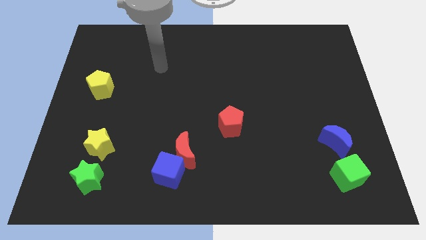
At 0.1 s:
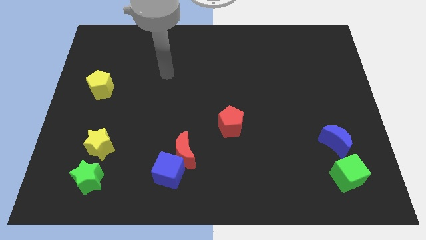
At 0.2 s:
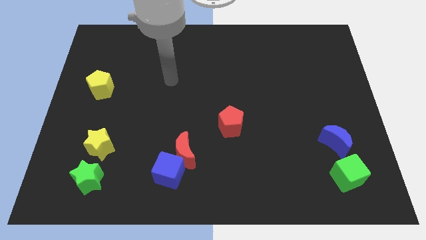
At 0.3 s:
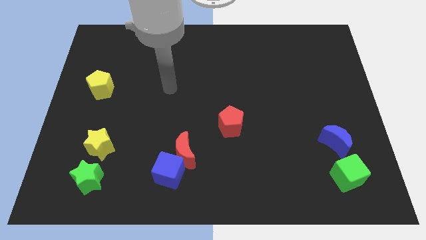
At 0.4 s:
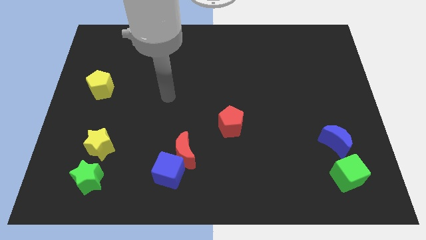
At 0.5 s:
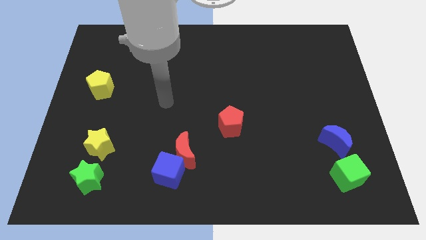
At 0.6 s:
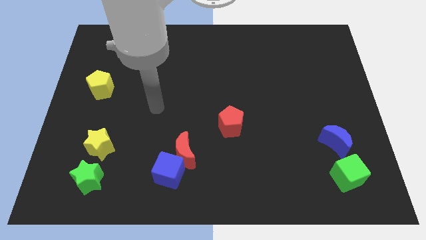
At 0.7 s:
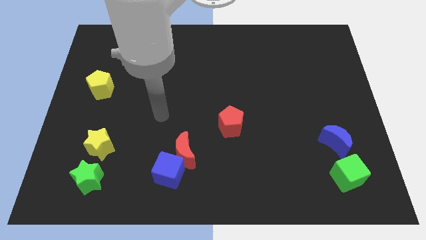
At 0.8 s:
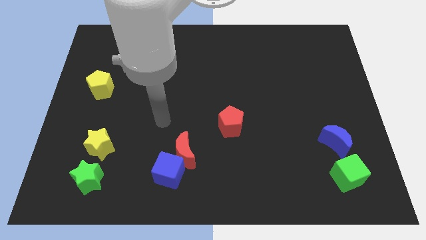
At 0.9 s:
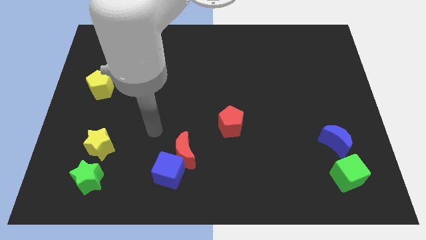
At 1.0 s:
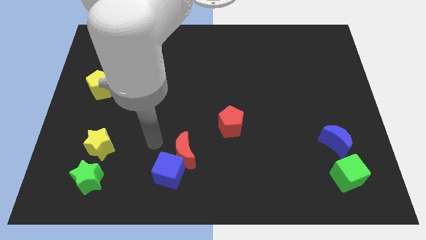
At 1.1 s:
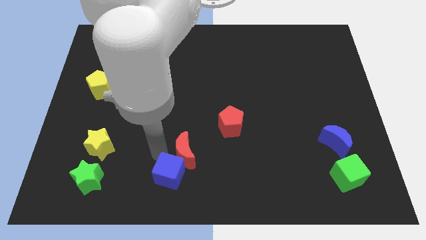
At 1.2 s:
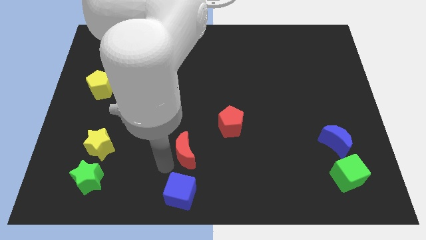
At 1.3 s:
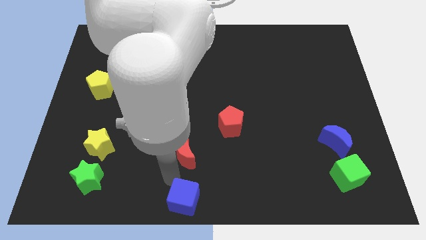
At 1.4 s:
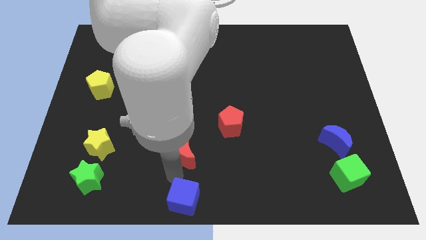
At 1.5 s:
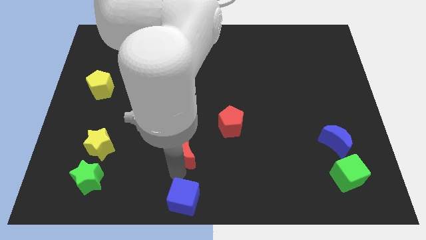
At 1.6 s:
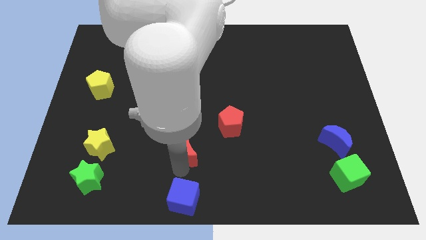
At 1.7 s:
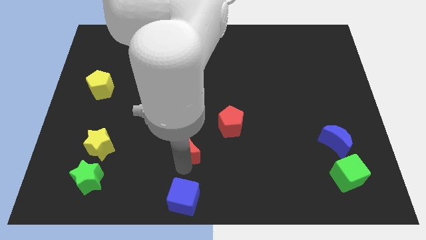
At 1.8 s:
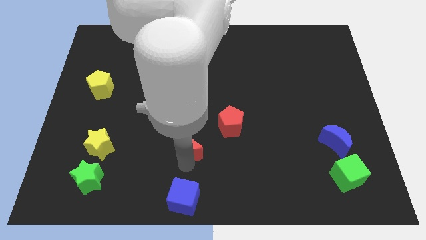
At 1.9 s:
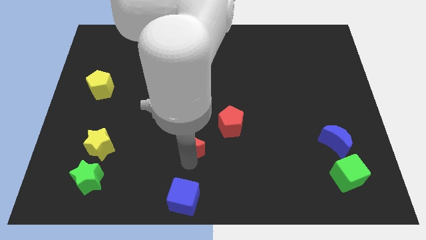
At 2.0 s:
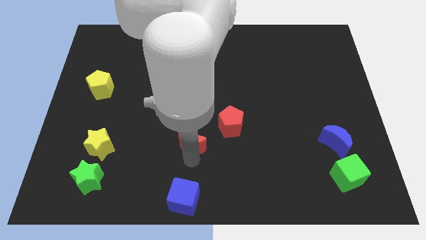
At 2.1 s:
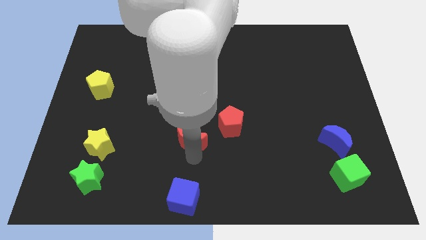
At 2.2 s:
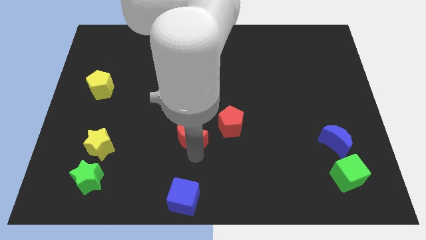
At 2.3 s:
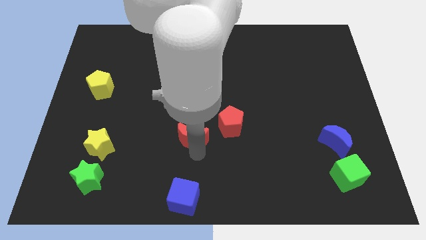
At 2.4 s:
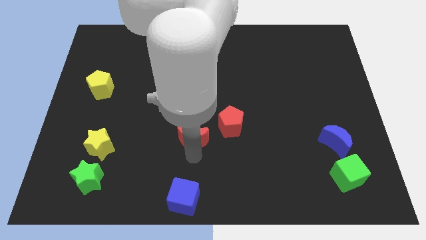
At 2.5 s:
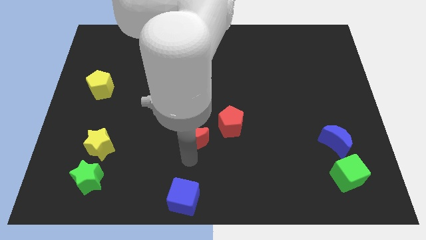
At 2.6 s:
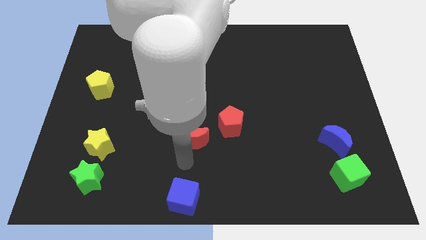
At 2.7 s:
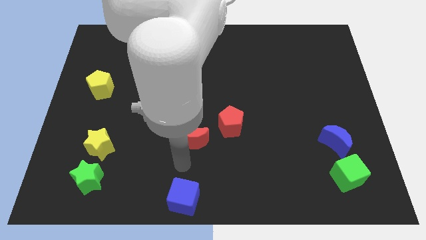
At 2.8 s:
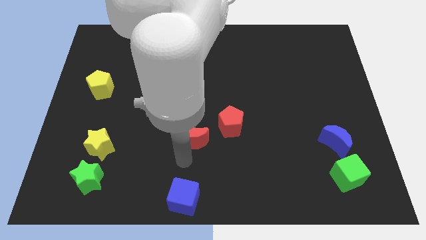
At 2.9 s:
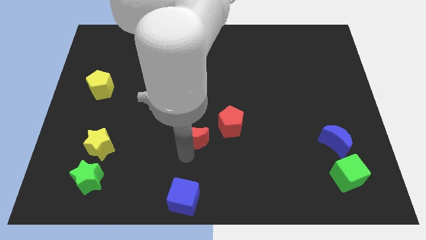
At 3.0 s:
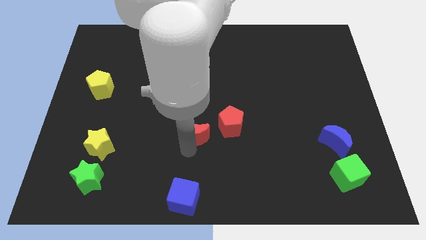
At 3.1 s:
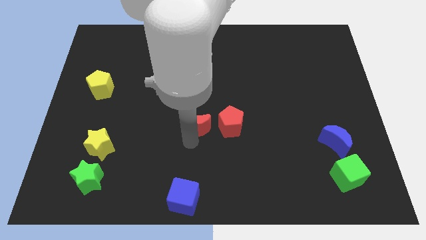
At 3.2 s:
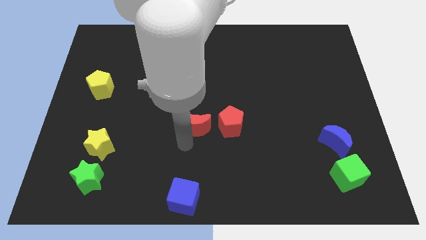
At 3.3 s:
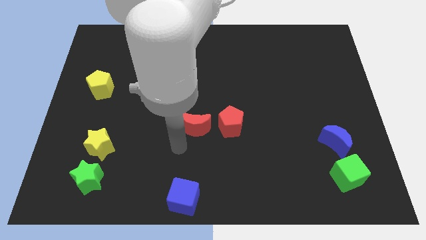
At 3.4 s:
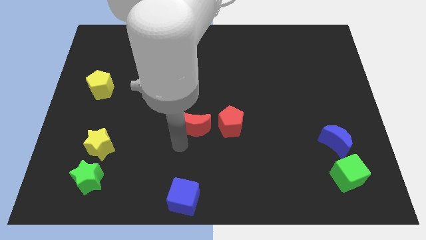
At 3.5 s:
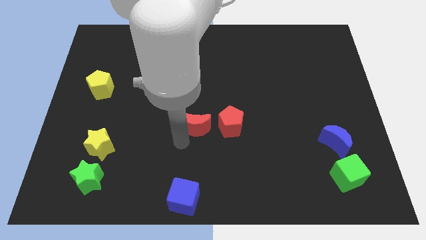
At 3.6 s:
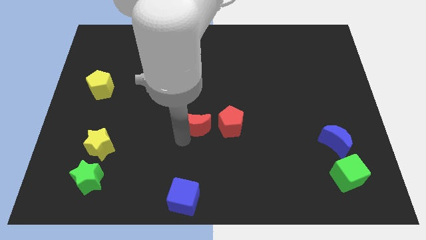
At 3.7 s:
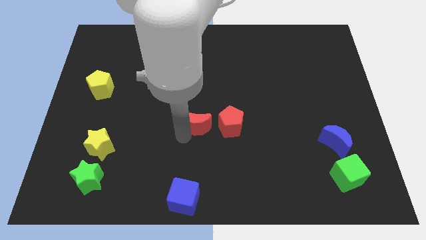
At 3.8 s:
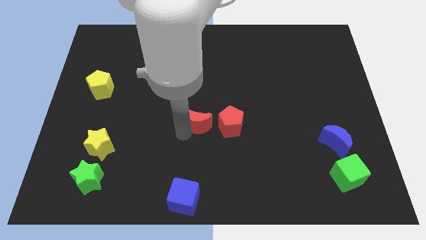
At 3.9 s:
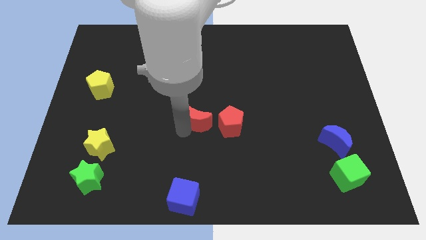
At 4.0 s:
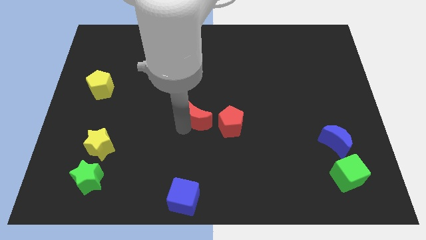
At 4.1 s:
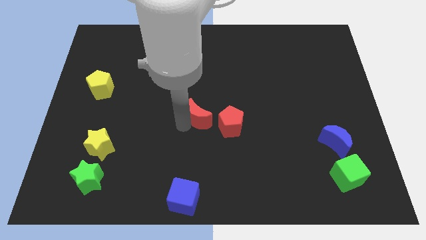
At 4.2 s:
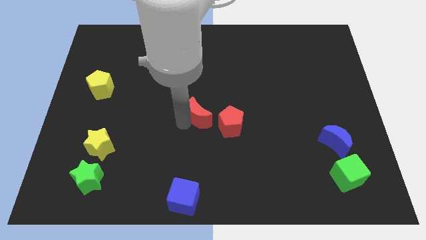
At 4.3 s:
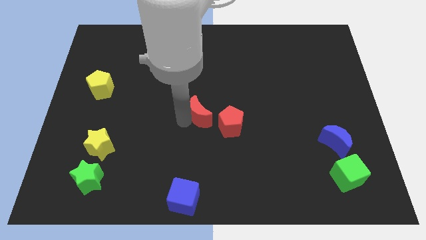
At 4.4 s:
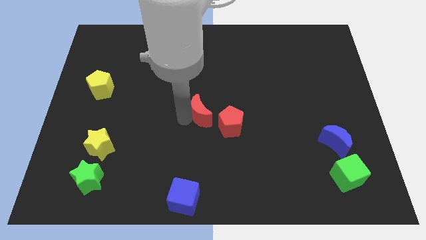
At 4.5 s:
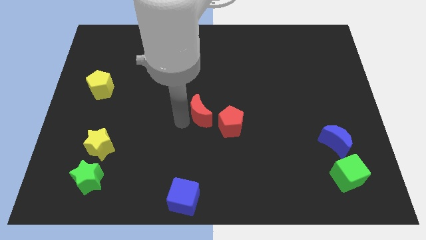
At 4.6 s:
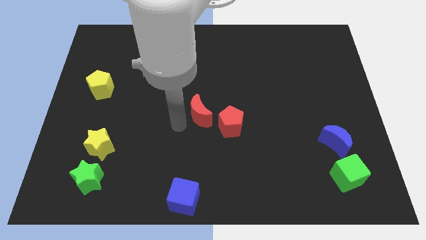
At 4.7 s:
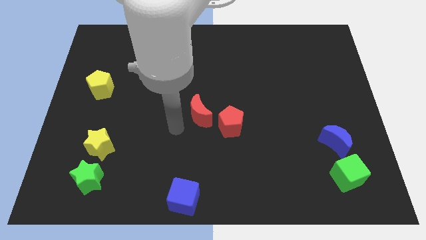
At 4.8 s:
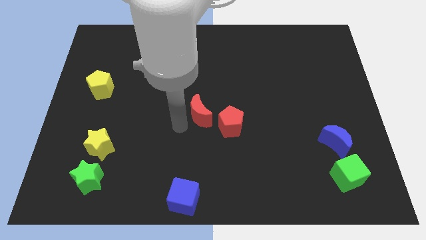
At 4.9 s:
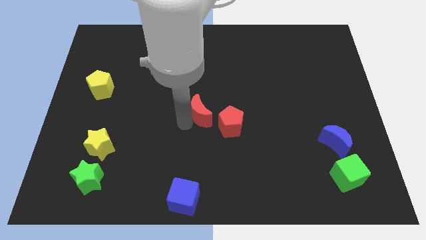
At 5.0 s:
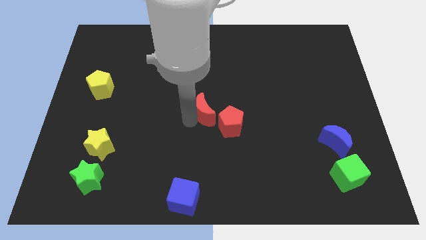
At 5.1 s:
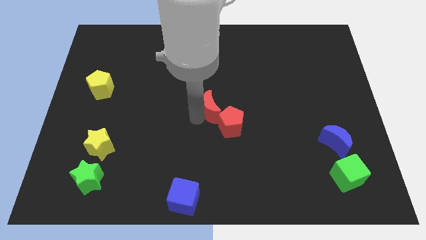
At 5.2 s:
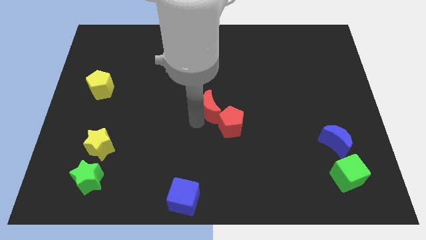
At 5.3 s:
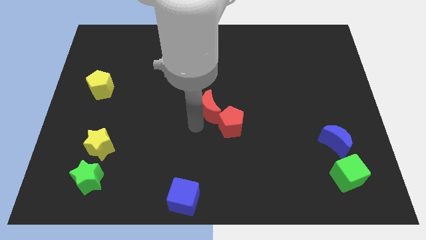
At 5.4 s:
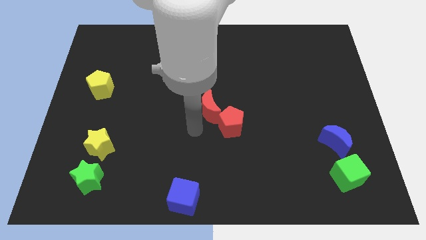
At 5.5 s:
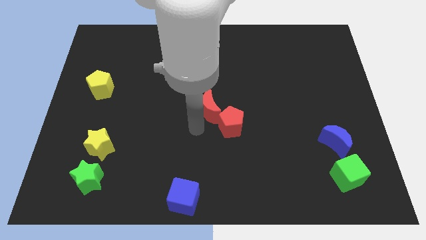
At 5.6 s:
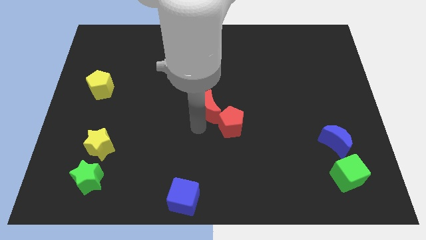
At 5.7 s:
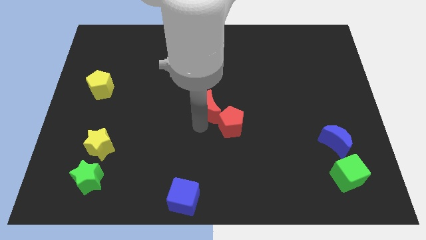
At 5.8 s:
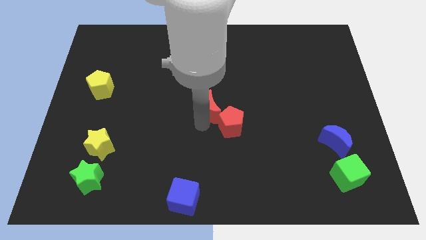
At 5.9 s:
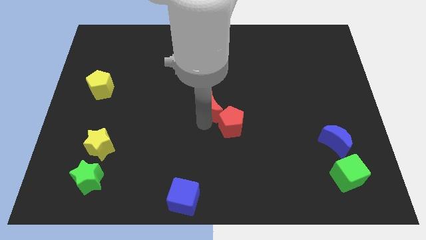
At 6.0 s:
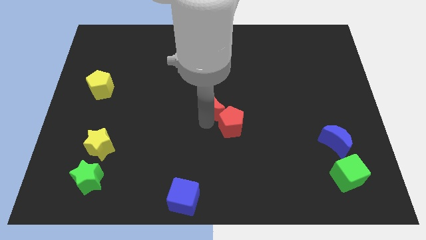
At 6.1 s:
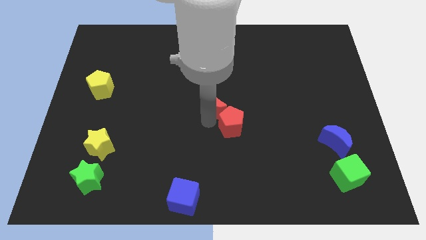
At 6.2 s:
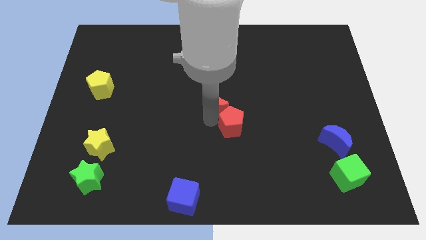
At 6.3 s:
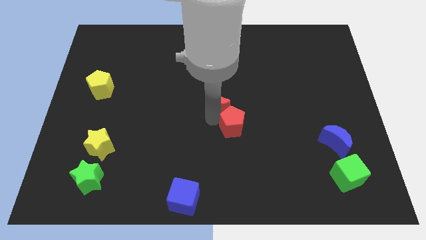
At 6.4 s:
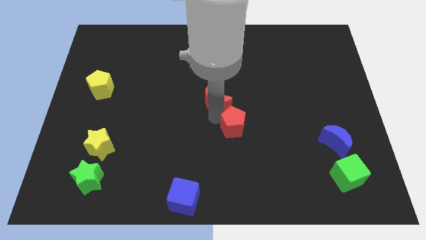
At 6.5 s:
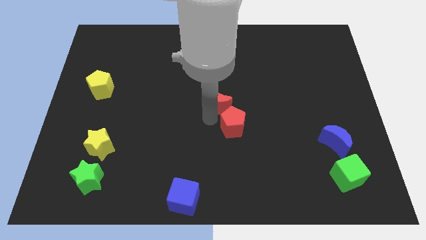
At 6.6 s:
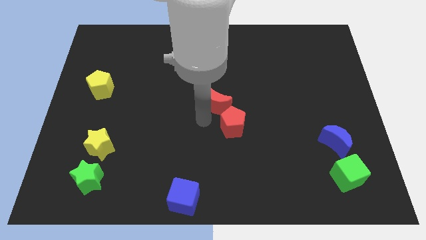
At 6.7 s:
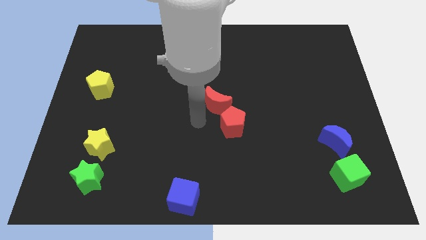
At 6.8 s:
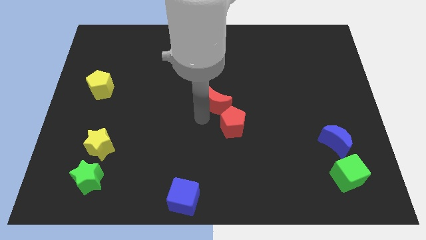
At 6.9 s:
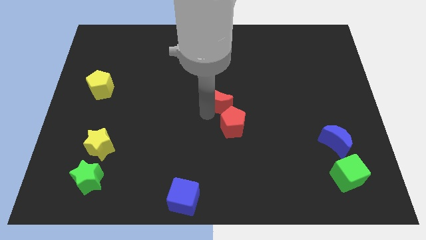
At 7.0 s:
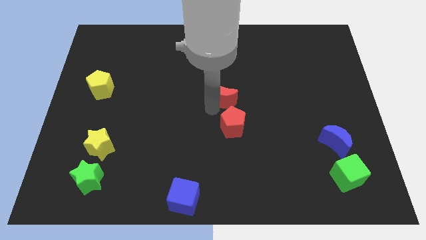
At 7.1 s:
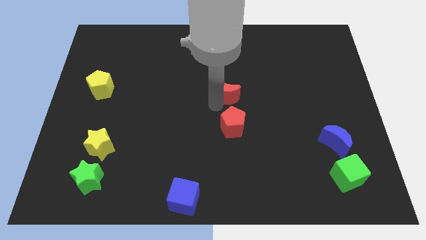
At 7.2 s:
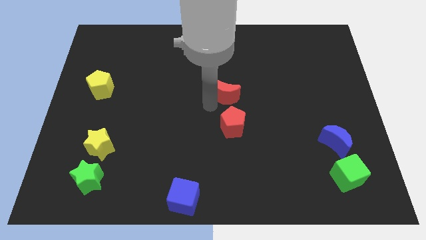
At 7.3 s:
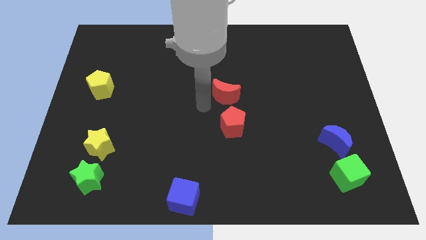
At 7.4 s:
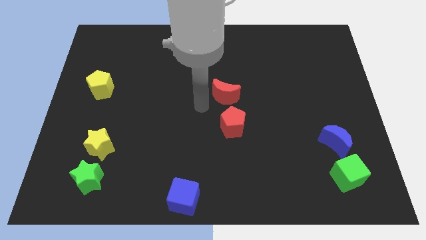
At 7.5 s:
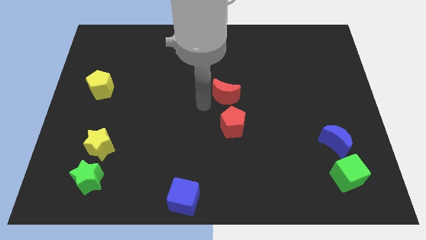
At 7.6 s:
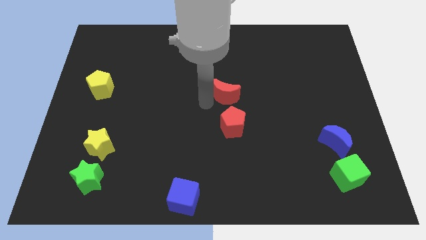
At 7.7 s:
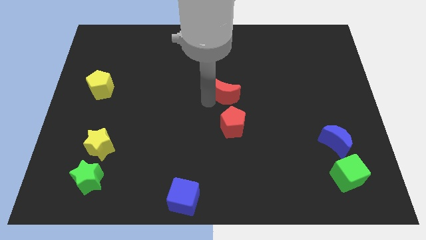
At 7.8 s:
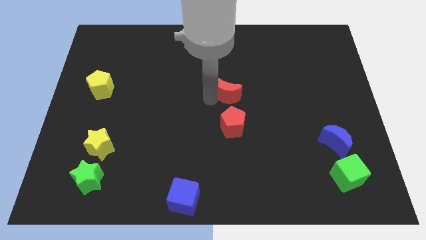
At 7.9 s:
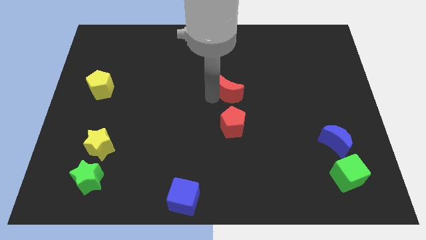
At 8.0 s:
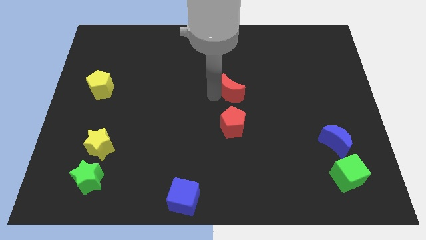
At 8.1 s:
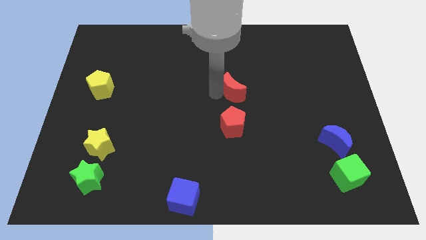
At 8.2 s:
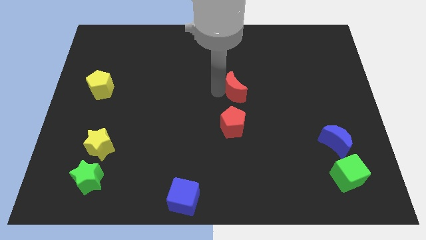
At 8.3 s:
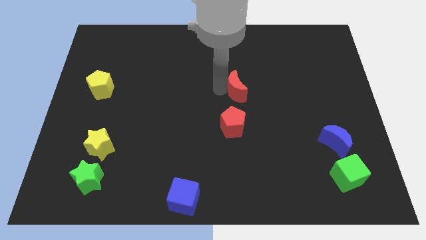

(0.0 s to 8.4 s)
slide the red moon diagonally up and to the right
